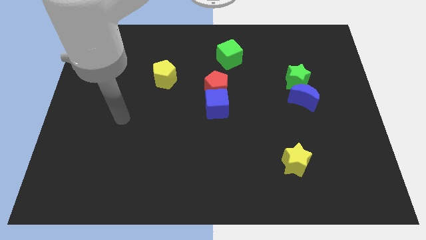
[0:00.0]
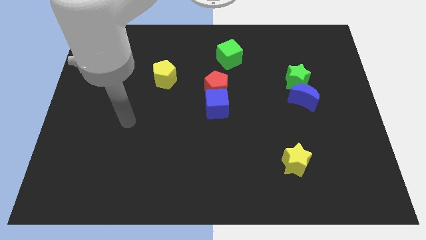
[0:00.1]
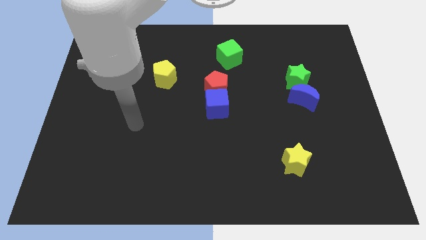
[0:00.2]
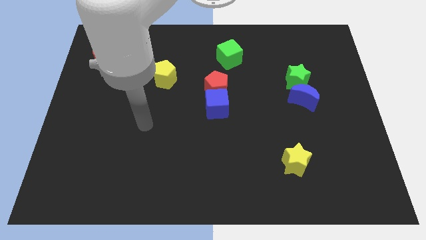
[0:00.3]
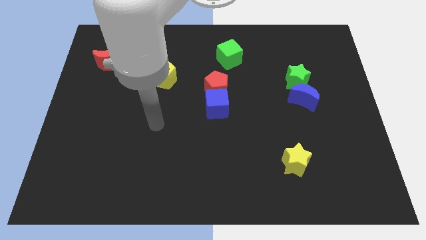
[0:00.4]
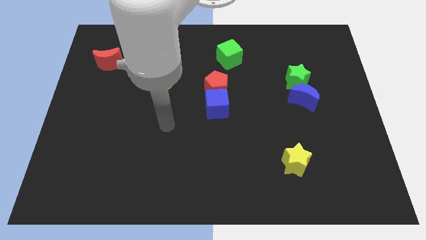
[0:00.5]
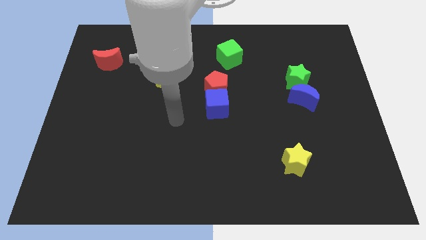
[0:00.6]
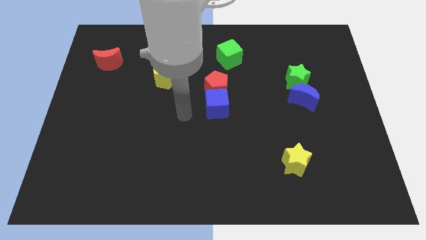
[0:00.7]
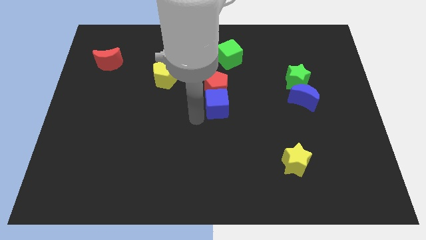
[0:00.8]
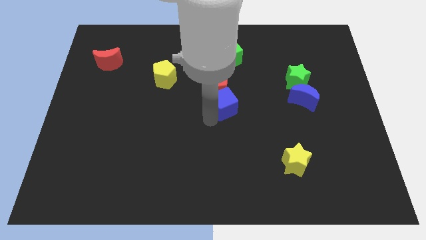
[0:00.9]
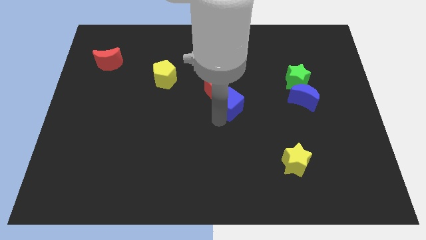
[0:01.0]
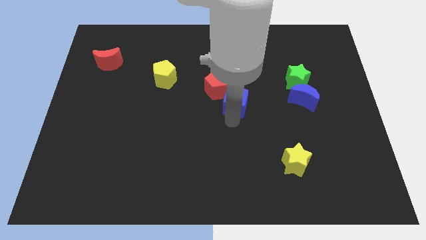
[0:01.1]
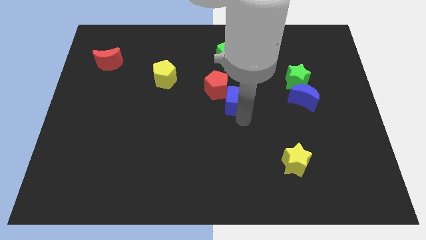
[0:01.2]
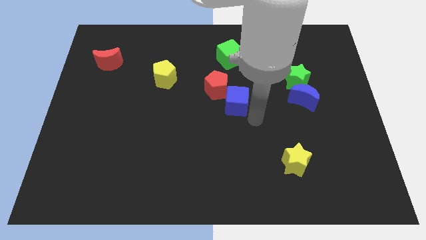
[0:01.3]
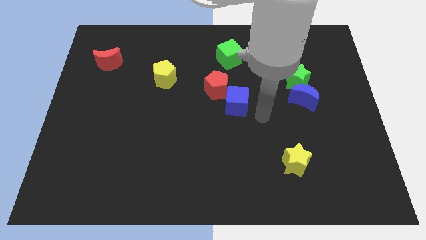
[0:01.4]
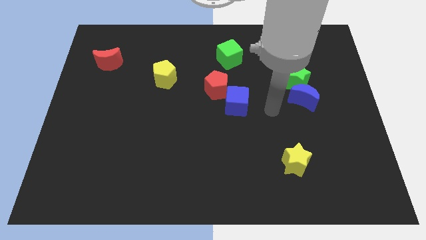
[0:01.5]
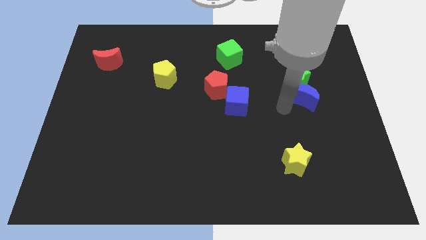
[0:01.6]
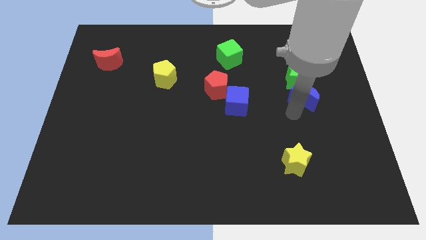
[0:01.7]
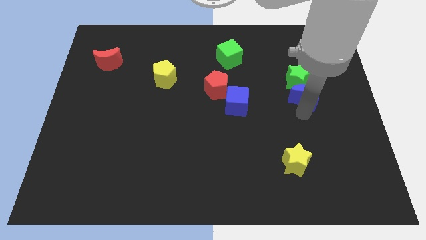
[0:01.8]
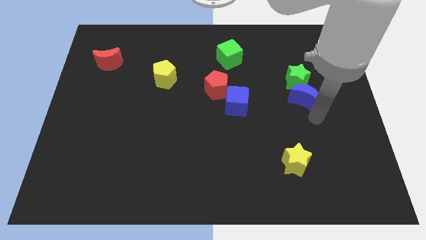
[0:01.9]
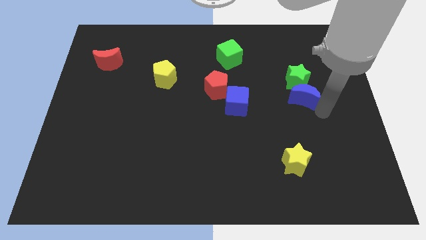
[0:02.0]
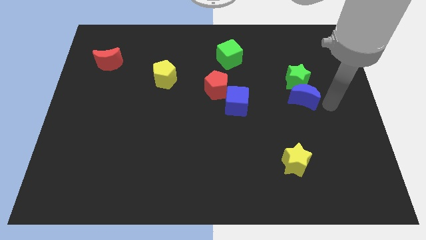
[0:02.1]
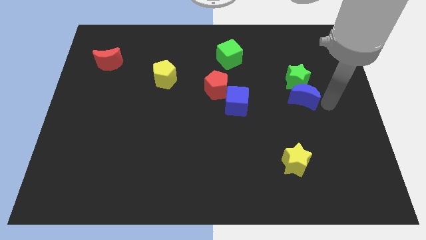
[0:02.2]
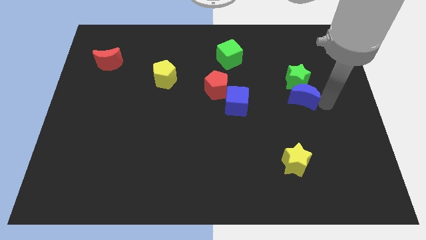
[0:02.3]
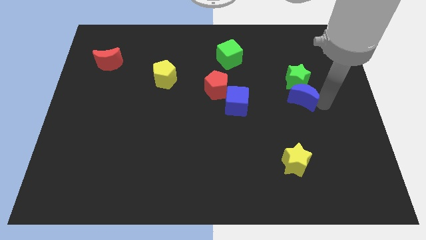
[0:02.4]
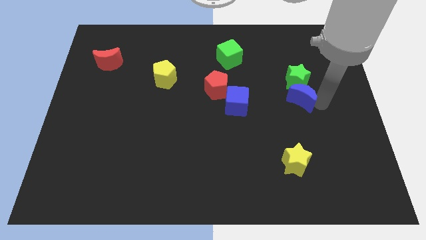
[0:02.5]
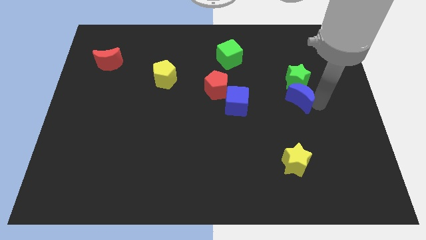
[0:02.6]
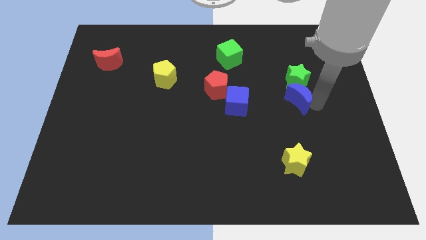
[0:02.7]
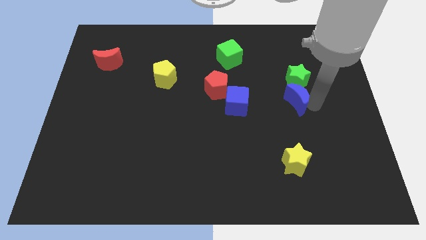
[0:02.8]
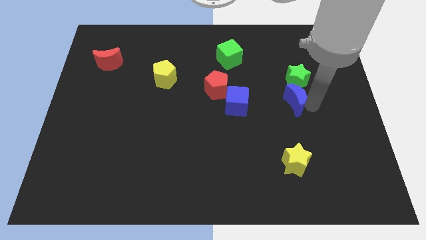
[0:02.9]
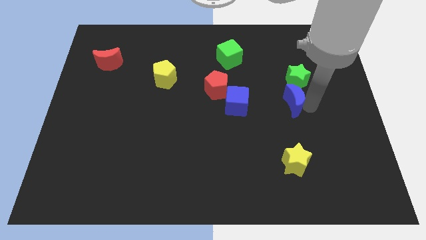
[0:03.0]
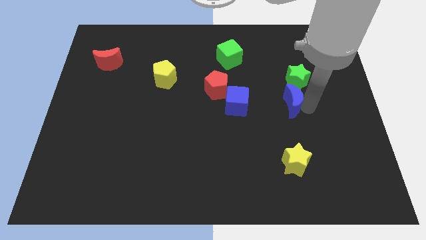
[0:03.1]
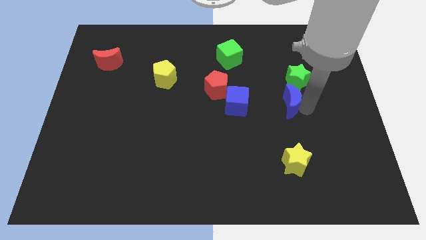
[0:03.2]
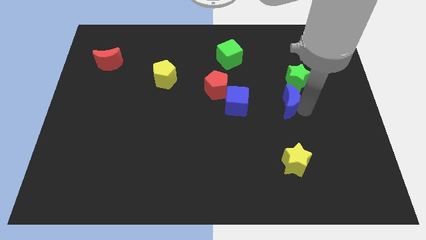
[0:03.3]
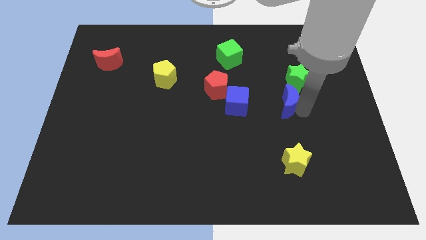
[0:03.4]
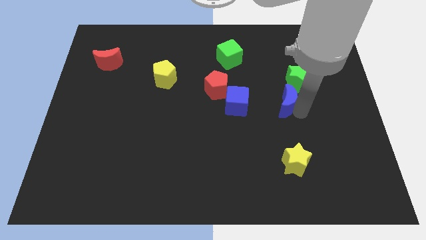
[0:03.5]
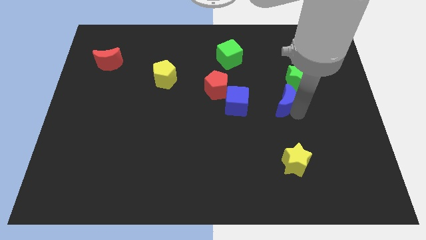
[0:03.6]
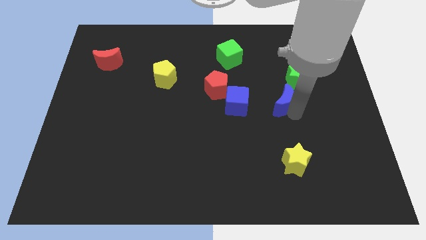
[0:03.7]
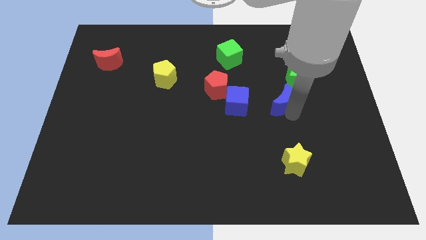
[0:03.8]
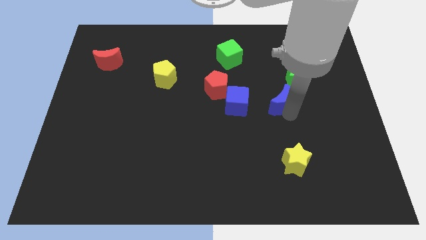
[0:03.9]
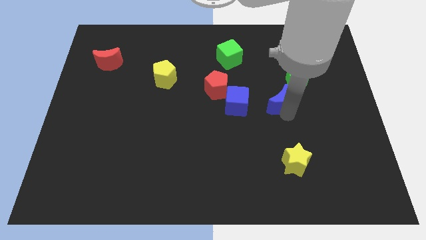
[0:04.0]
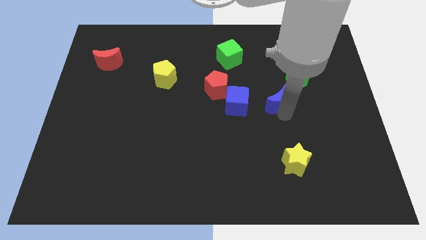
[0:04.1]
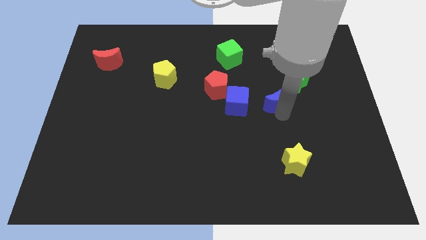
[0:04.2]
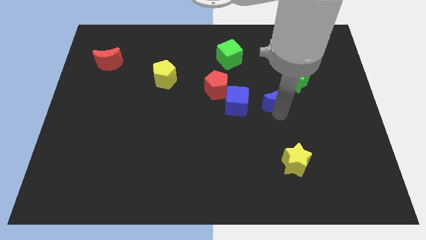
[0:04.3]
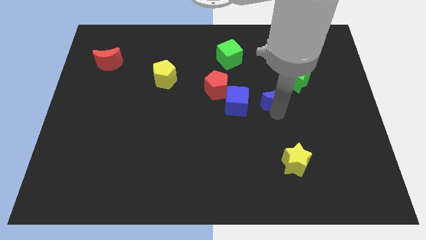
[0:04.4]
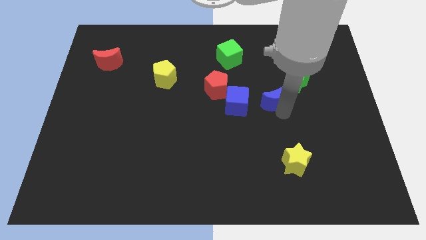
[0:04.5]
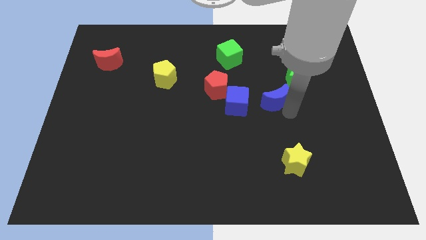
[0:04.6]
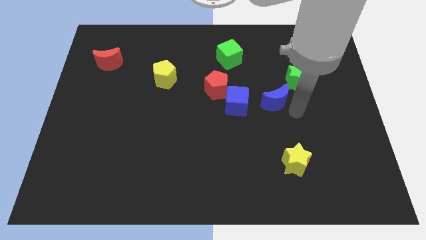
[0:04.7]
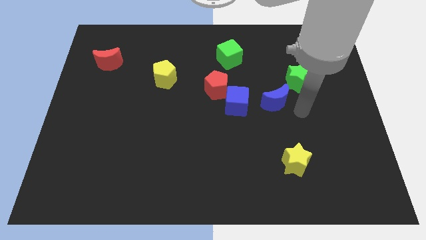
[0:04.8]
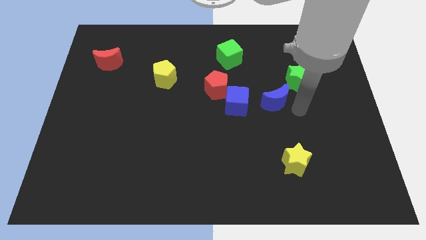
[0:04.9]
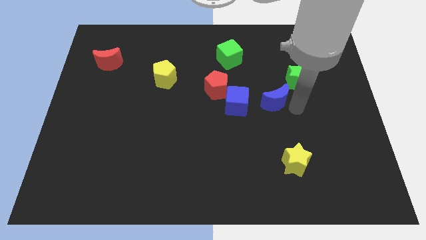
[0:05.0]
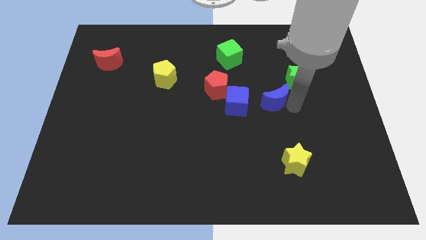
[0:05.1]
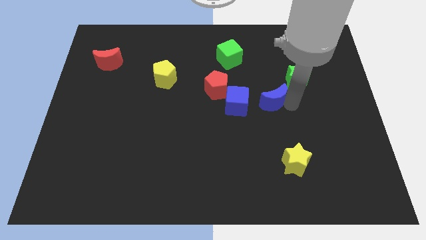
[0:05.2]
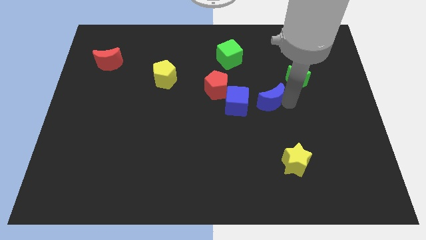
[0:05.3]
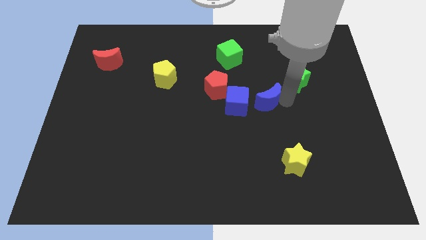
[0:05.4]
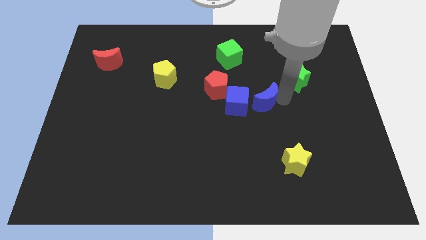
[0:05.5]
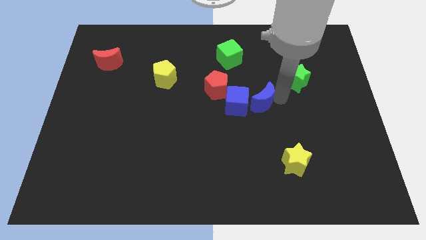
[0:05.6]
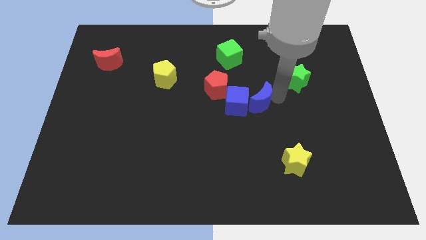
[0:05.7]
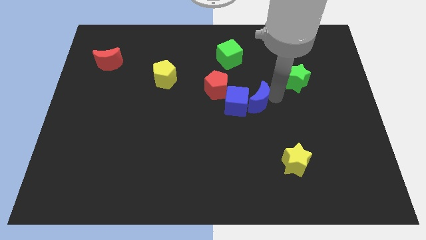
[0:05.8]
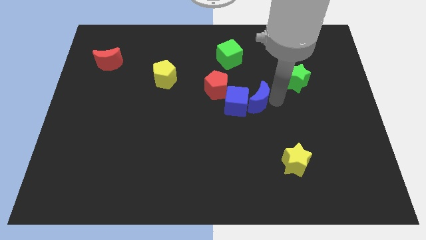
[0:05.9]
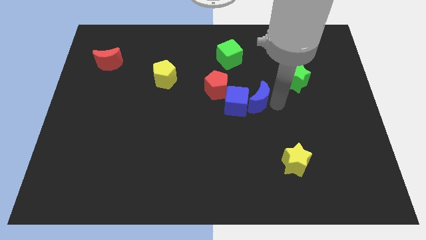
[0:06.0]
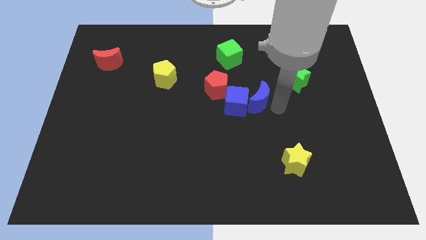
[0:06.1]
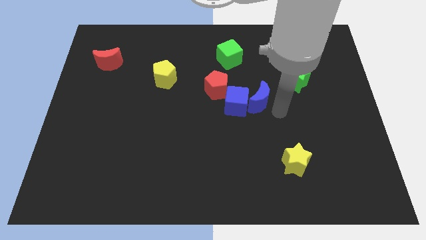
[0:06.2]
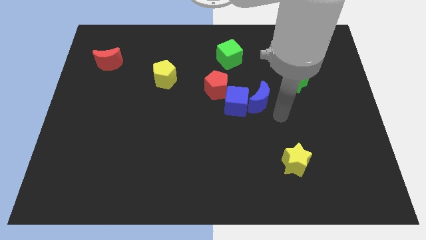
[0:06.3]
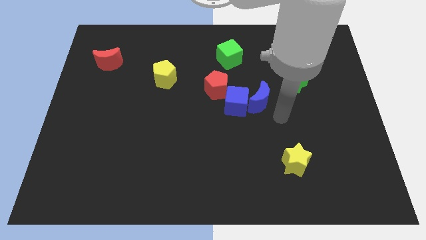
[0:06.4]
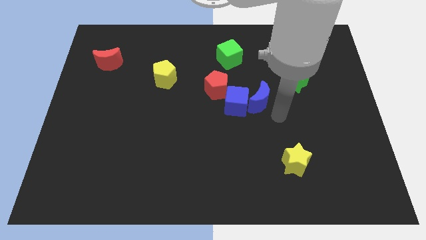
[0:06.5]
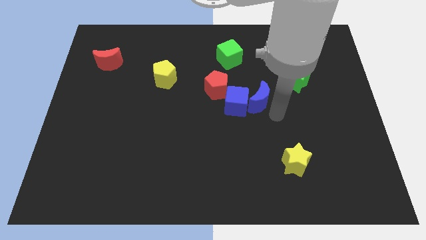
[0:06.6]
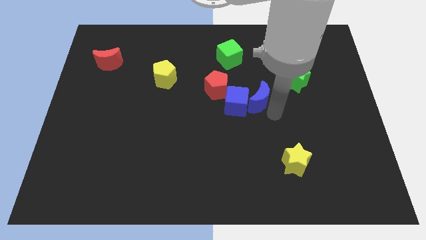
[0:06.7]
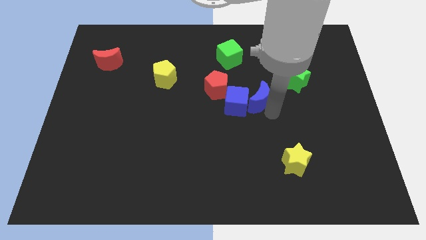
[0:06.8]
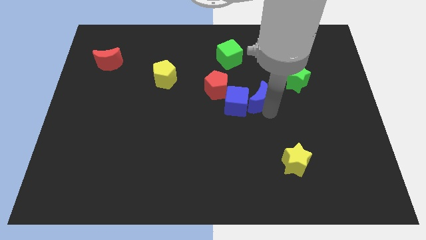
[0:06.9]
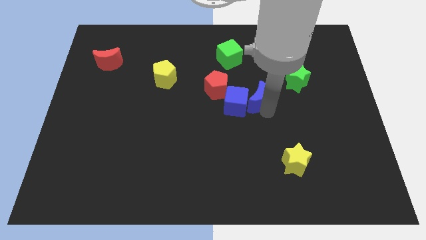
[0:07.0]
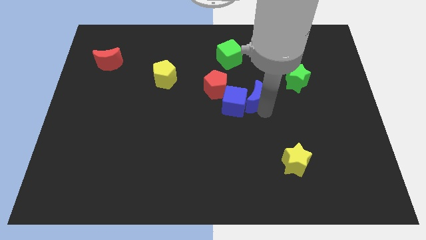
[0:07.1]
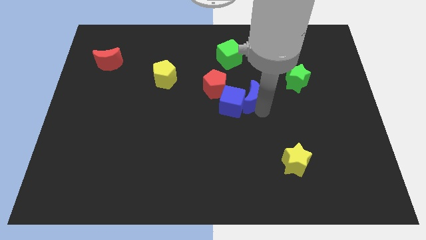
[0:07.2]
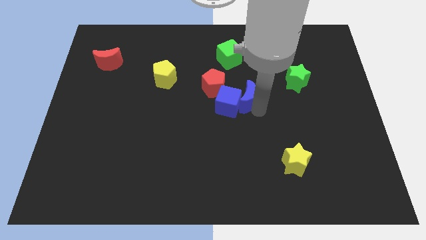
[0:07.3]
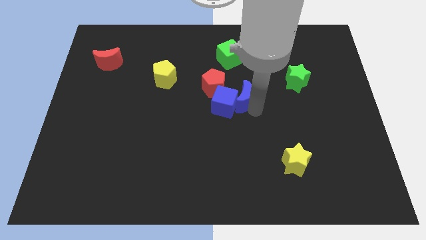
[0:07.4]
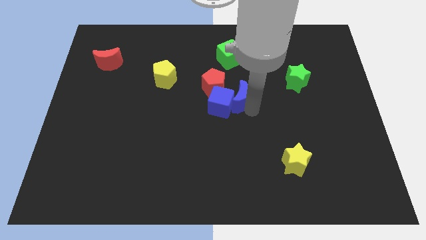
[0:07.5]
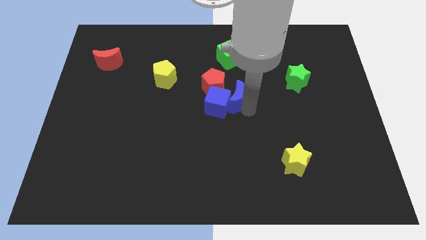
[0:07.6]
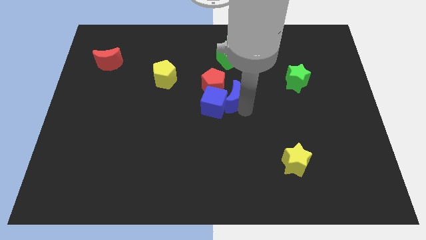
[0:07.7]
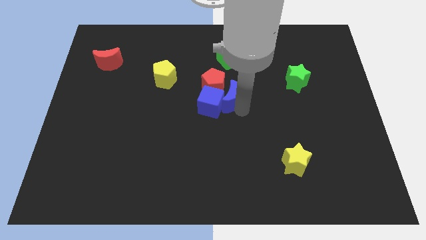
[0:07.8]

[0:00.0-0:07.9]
put the blue moon to the red pentagon
